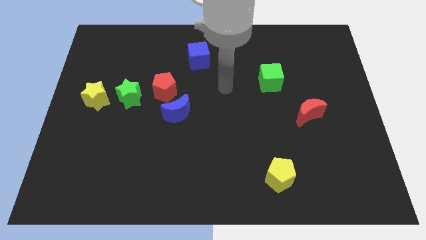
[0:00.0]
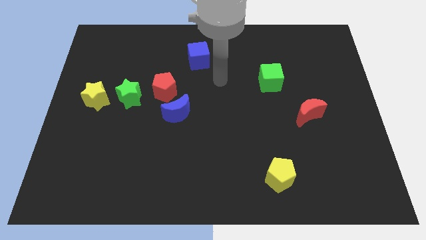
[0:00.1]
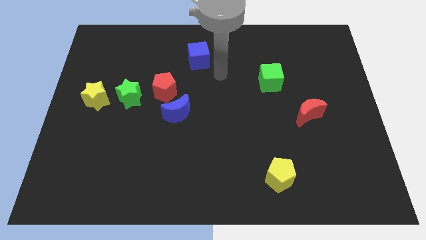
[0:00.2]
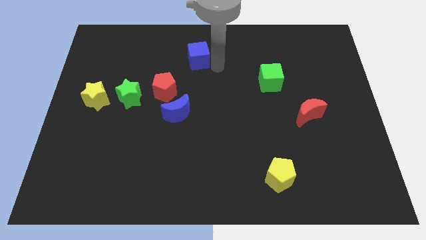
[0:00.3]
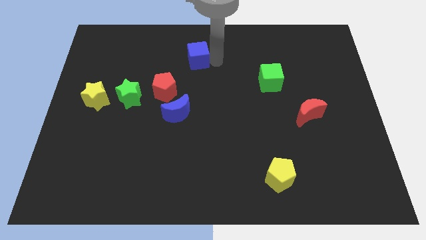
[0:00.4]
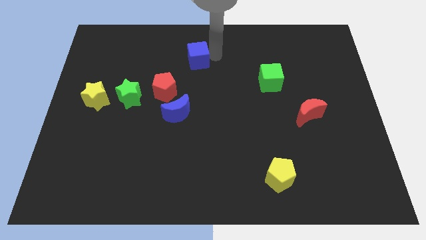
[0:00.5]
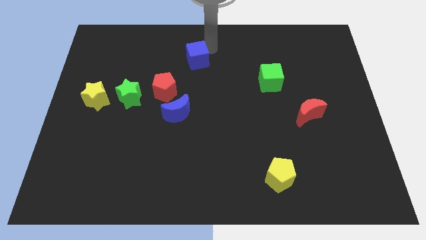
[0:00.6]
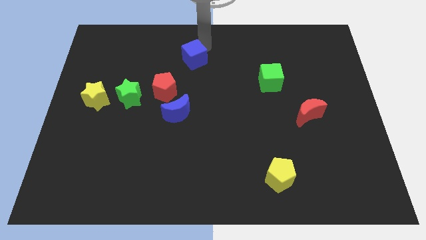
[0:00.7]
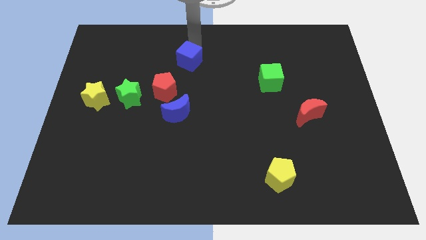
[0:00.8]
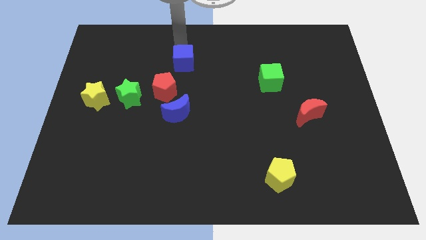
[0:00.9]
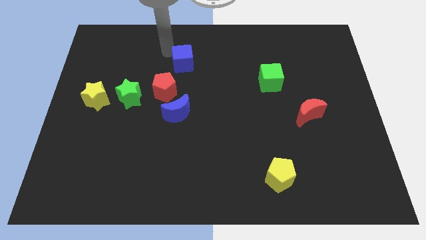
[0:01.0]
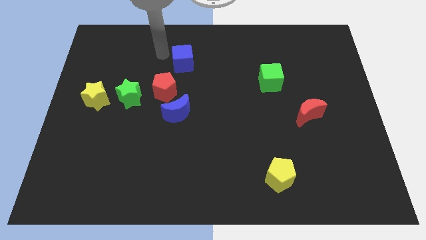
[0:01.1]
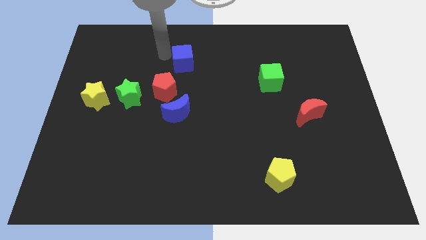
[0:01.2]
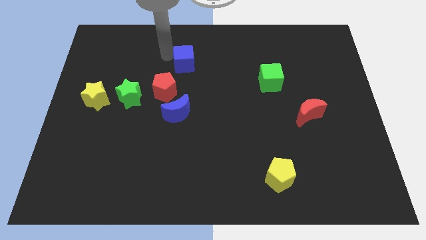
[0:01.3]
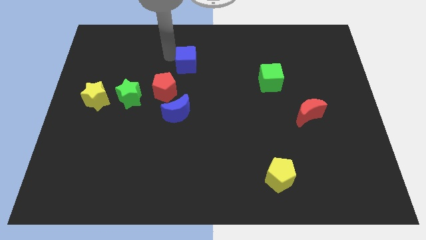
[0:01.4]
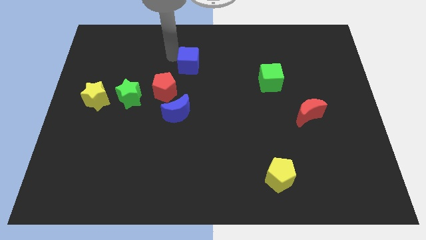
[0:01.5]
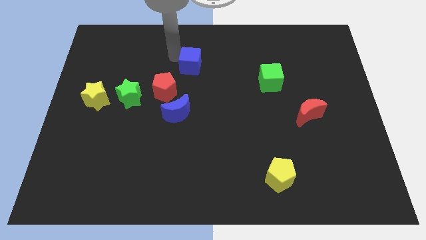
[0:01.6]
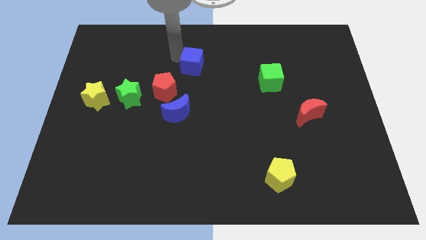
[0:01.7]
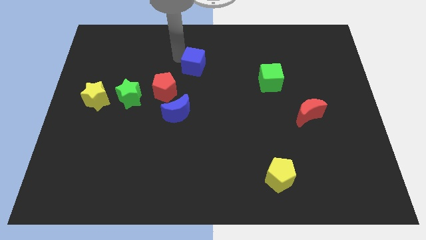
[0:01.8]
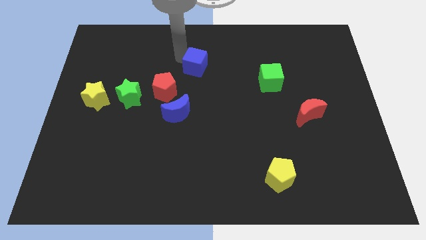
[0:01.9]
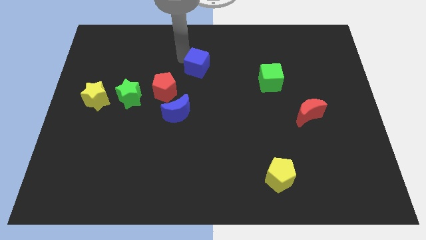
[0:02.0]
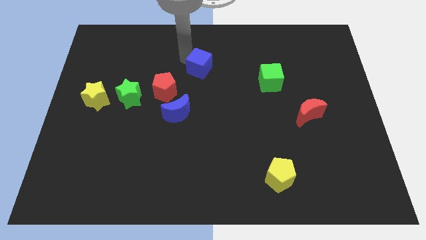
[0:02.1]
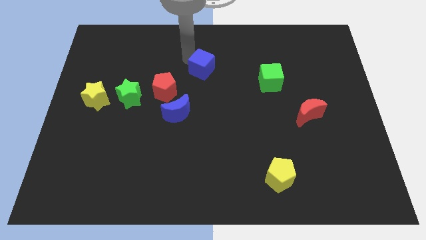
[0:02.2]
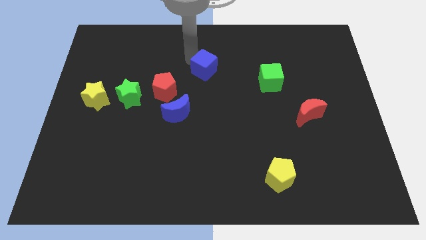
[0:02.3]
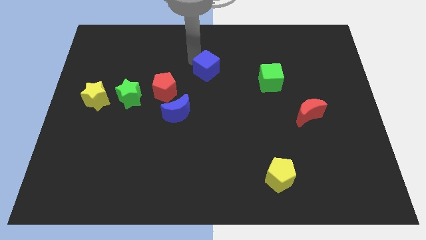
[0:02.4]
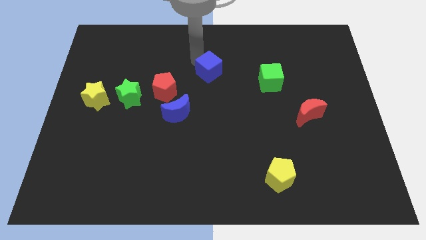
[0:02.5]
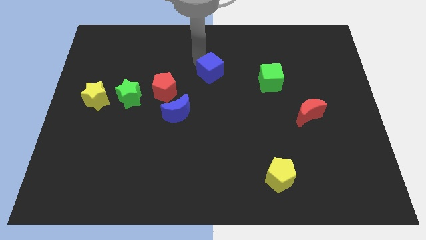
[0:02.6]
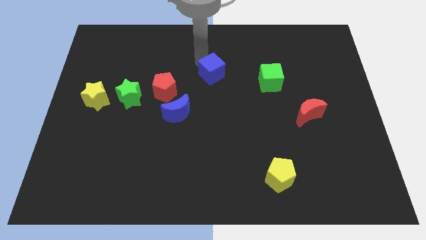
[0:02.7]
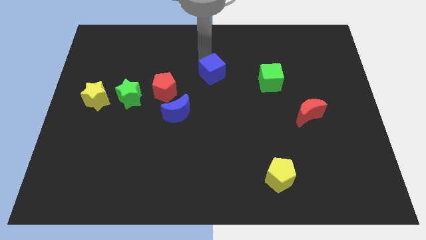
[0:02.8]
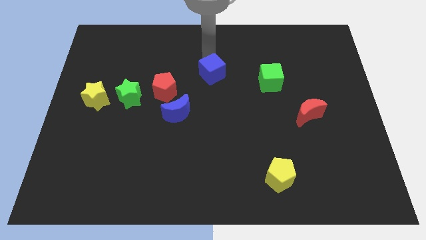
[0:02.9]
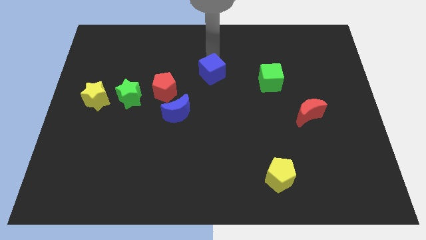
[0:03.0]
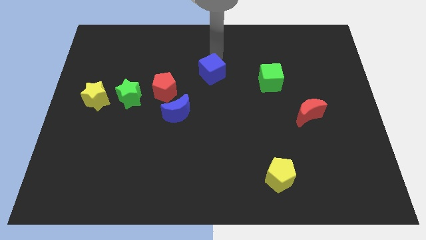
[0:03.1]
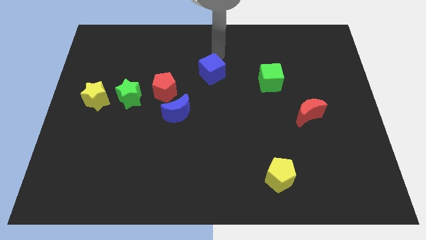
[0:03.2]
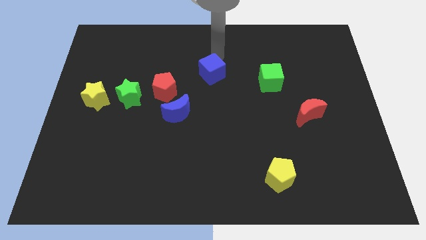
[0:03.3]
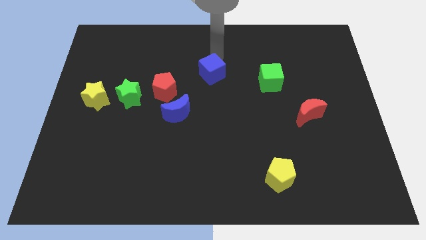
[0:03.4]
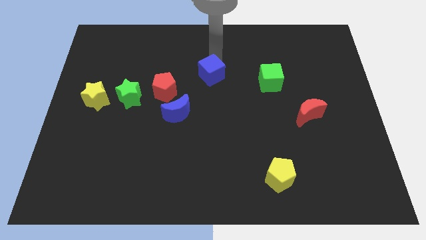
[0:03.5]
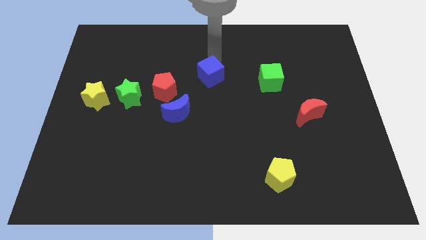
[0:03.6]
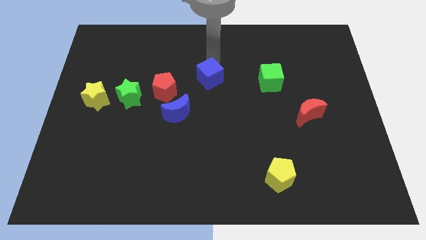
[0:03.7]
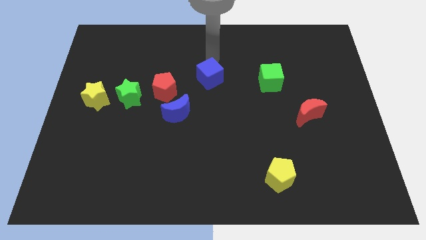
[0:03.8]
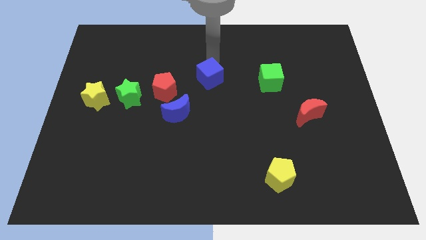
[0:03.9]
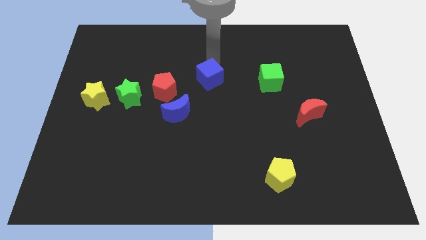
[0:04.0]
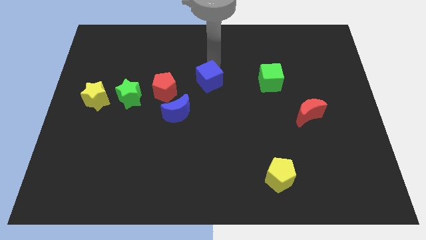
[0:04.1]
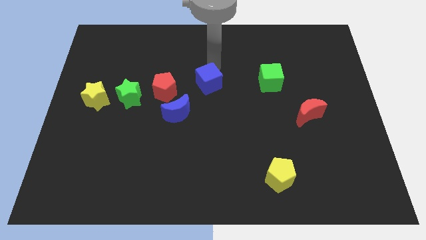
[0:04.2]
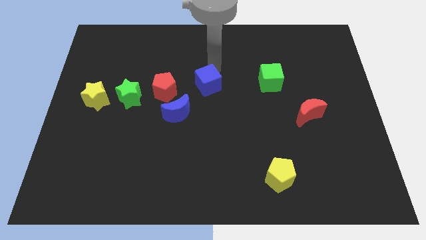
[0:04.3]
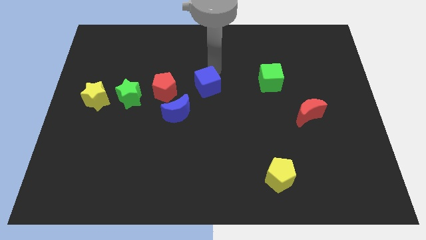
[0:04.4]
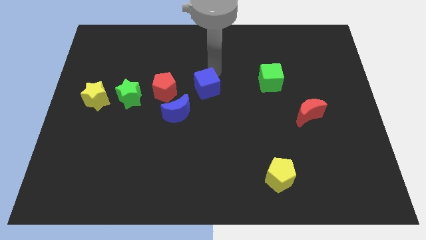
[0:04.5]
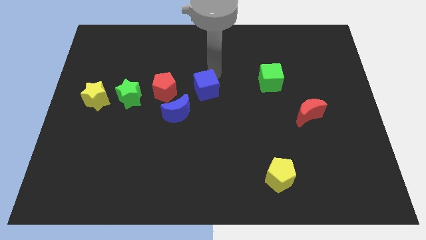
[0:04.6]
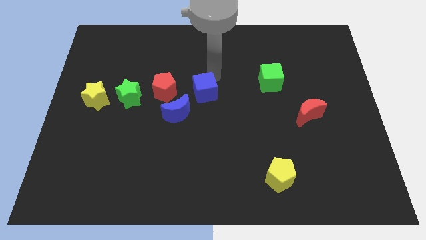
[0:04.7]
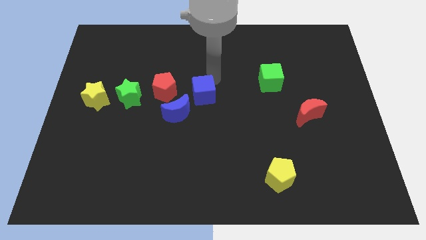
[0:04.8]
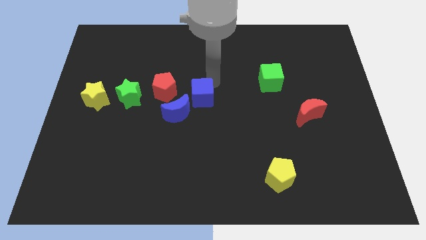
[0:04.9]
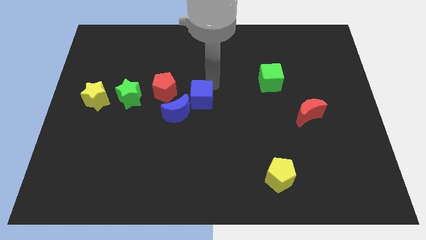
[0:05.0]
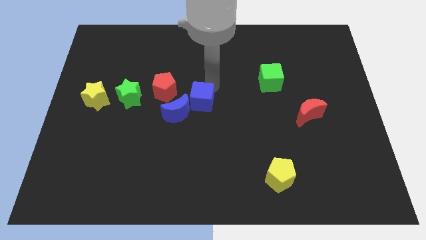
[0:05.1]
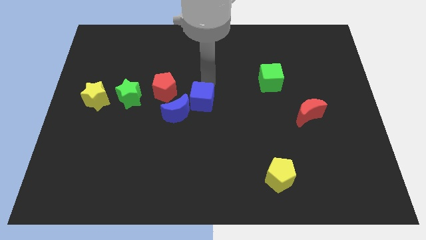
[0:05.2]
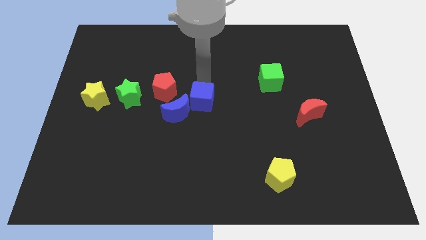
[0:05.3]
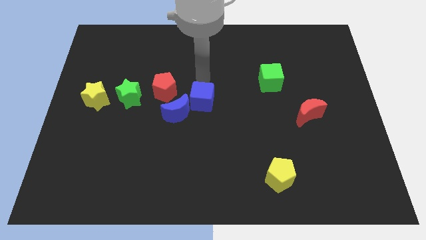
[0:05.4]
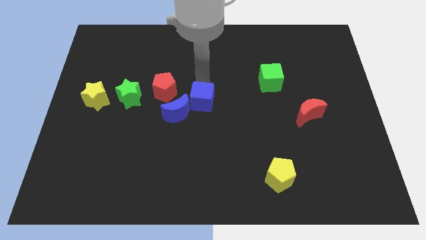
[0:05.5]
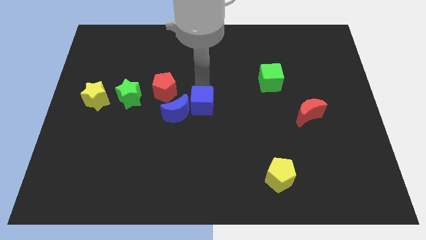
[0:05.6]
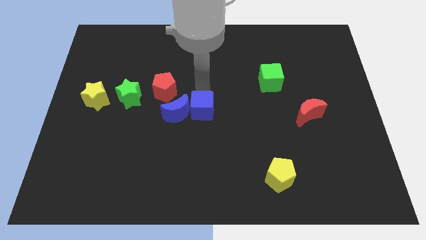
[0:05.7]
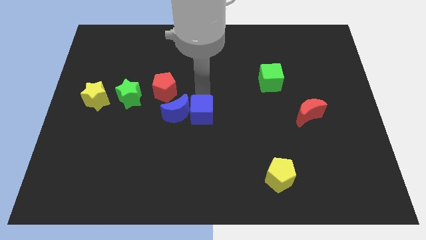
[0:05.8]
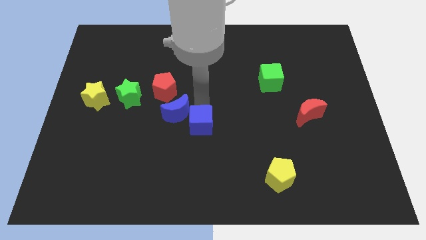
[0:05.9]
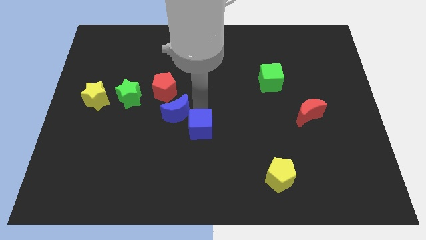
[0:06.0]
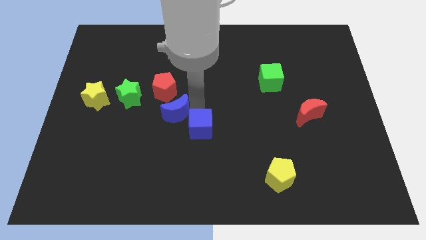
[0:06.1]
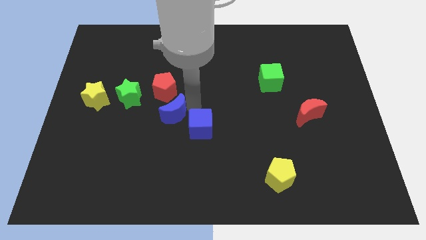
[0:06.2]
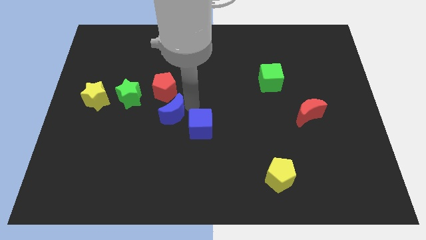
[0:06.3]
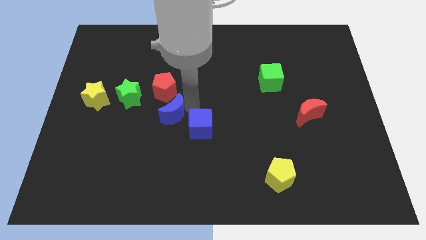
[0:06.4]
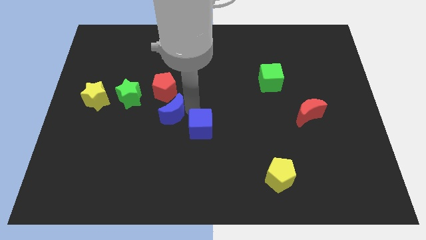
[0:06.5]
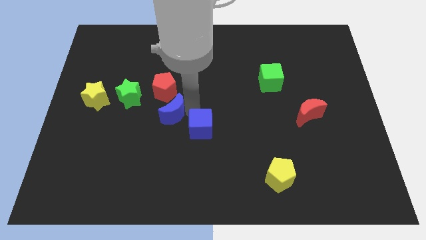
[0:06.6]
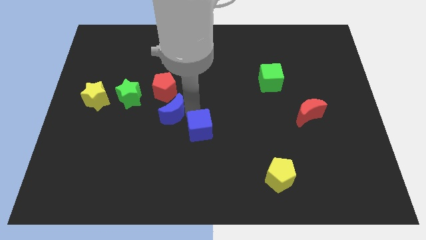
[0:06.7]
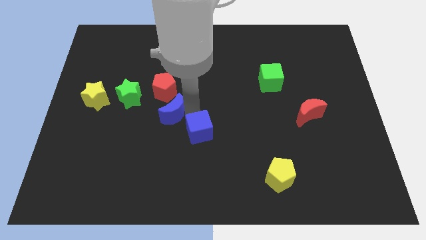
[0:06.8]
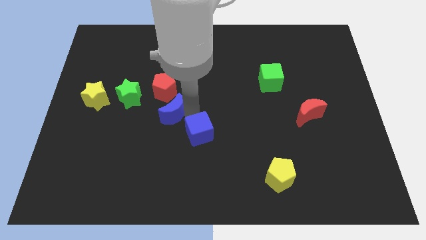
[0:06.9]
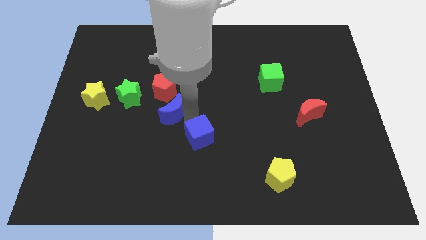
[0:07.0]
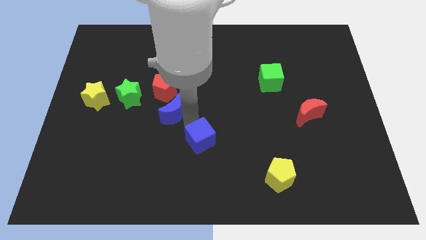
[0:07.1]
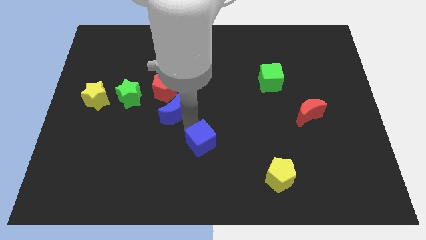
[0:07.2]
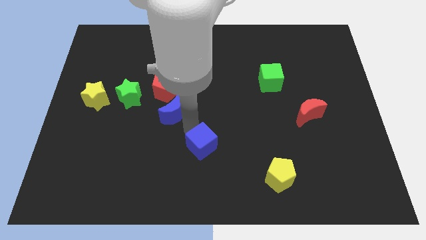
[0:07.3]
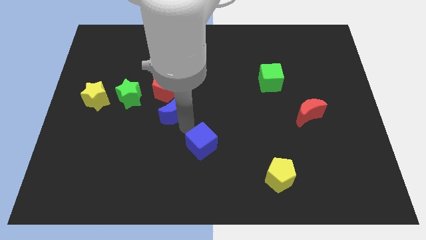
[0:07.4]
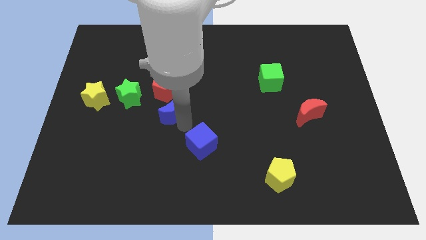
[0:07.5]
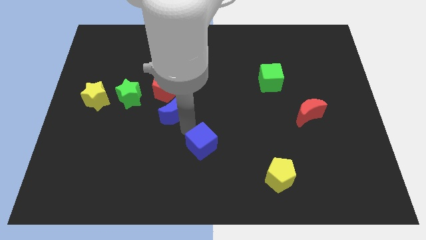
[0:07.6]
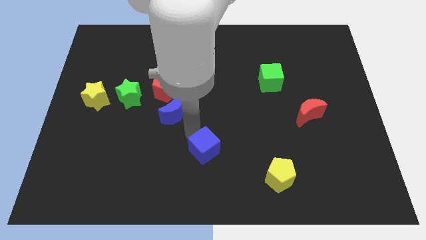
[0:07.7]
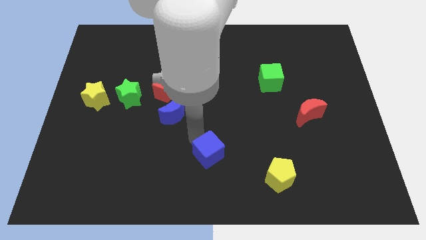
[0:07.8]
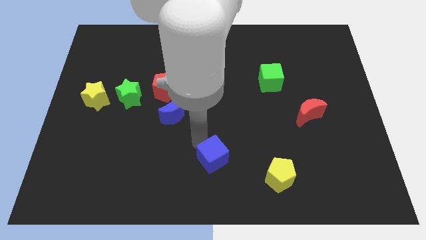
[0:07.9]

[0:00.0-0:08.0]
slide the blue cube to the left side of the yellow pentagon
